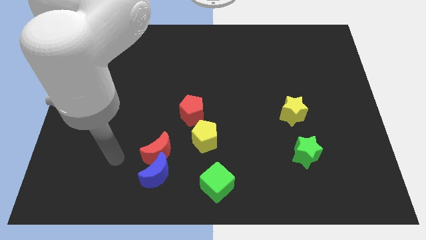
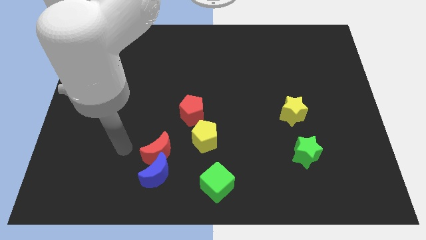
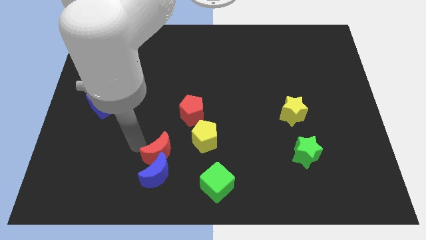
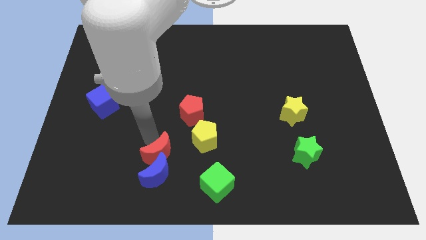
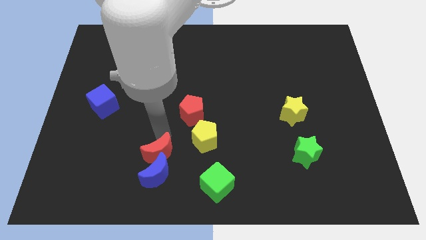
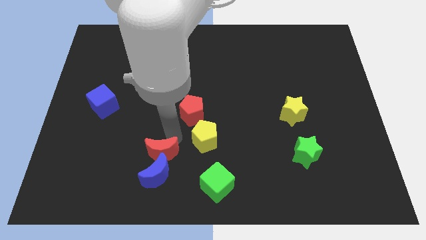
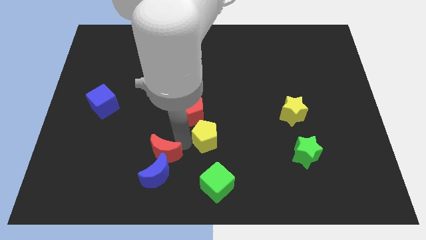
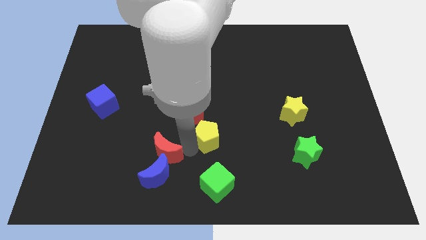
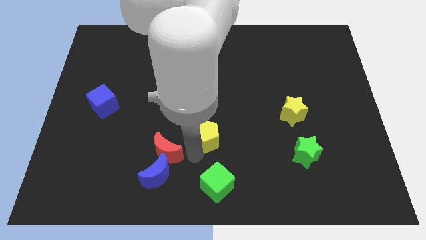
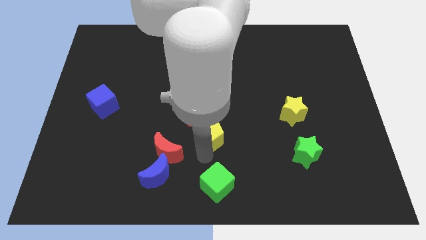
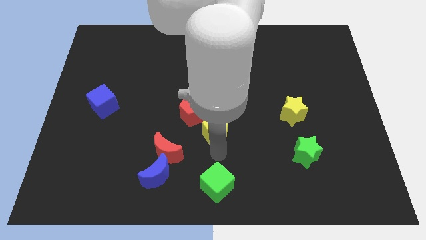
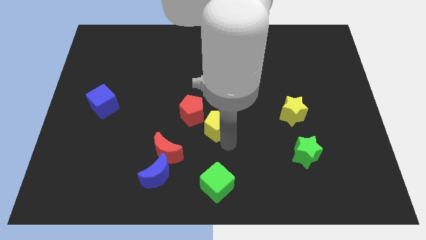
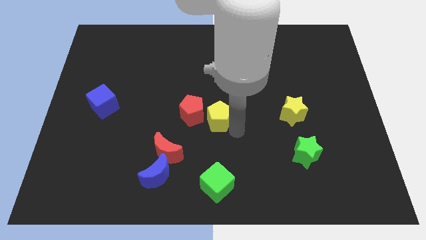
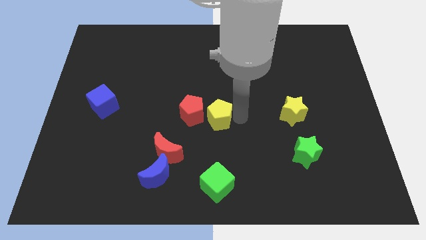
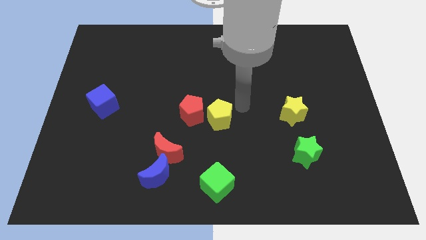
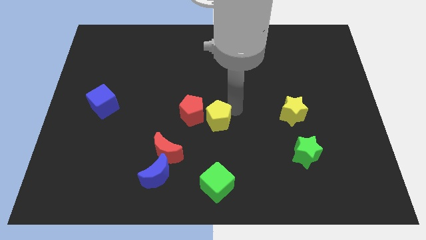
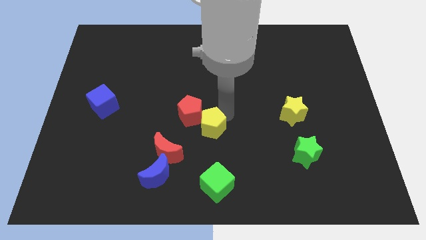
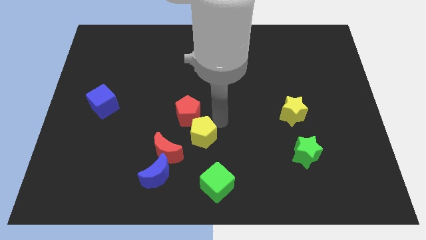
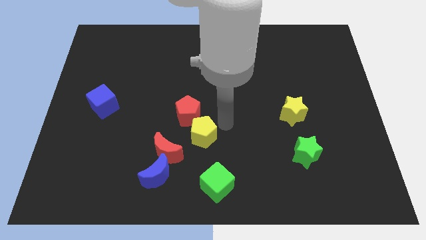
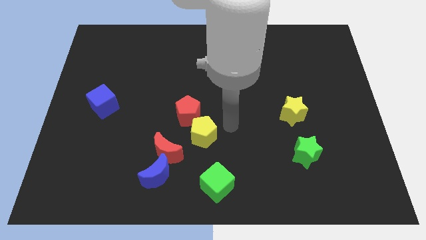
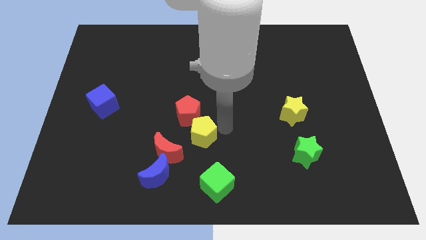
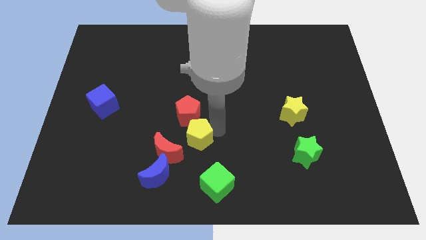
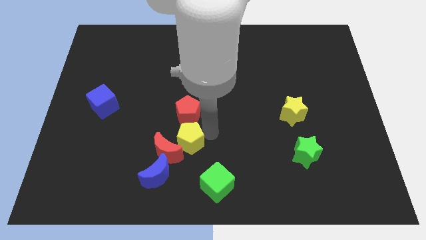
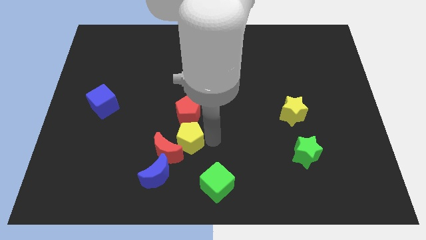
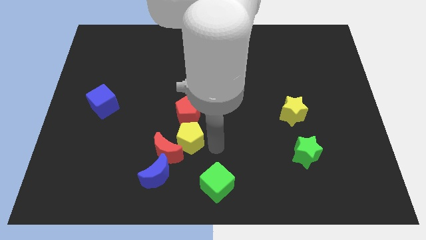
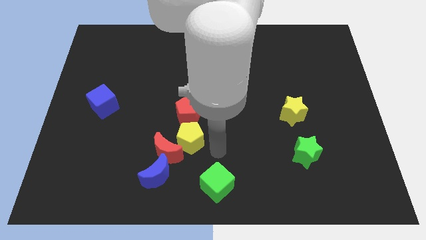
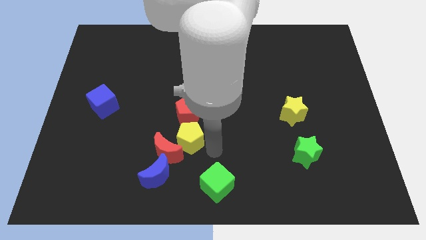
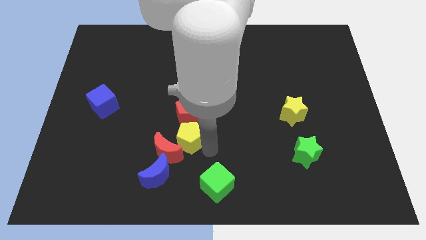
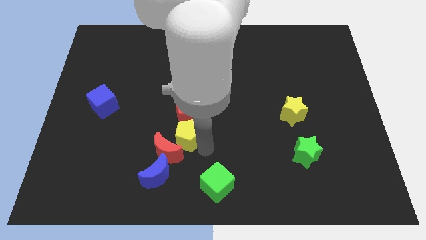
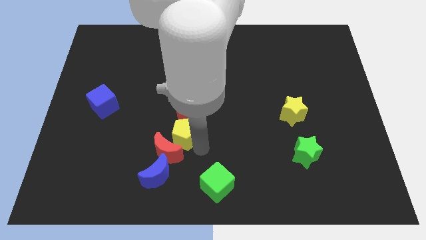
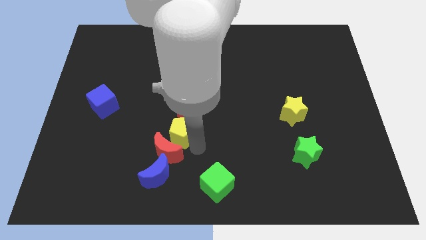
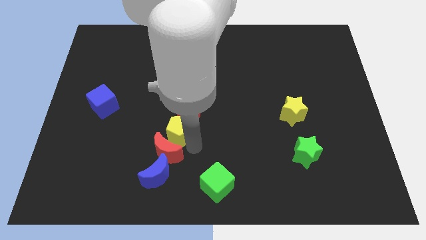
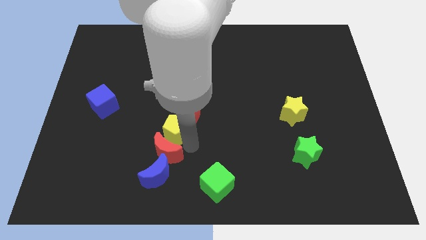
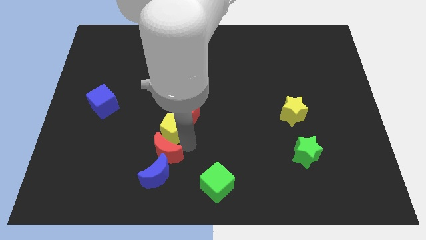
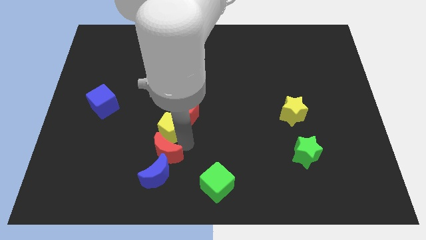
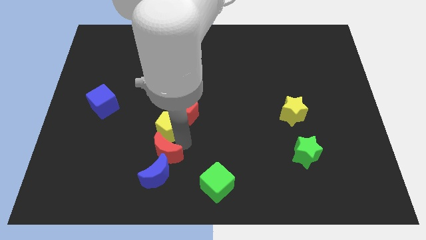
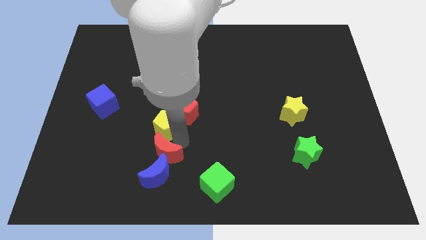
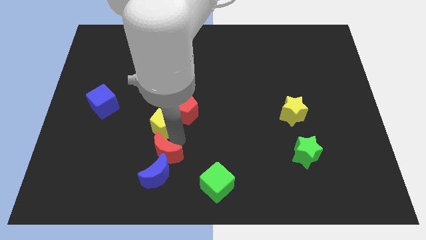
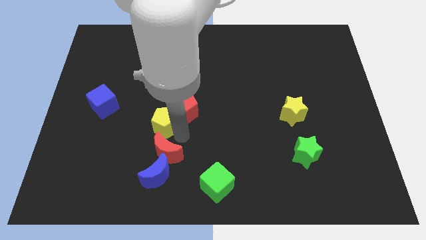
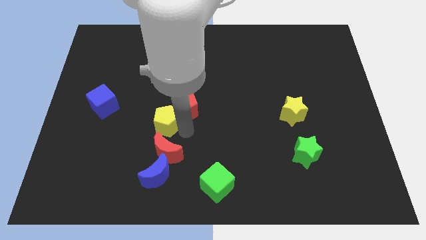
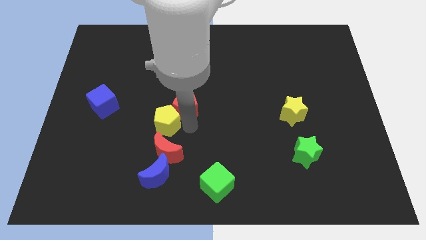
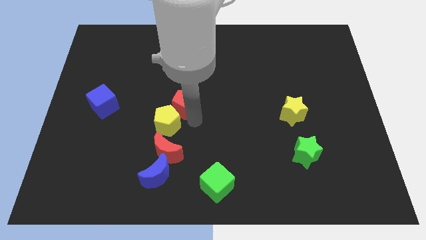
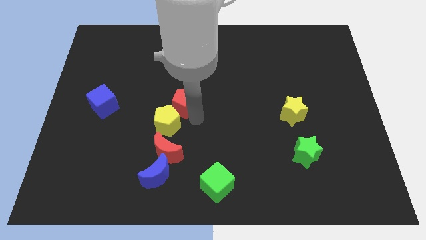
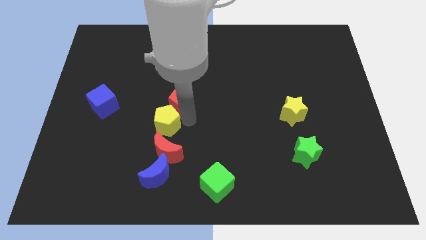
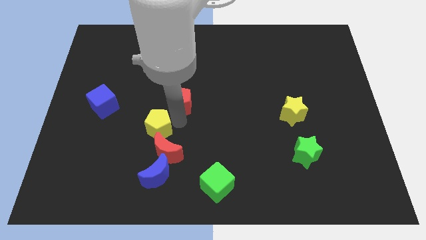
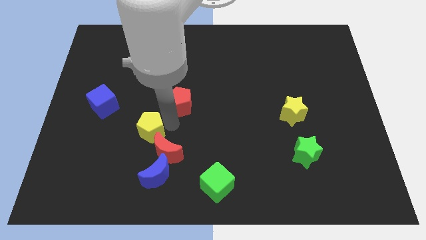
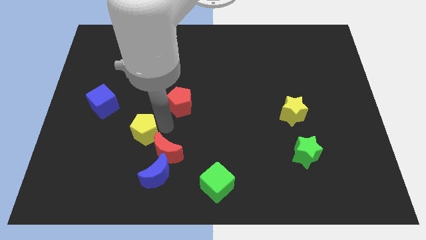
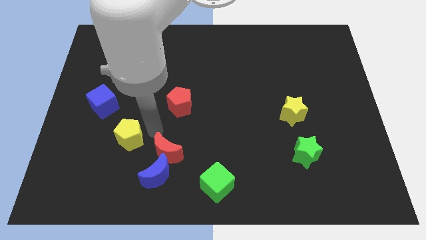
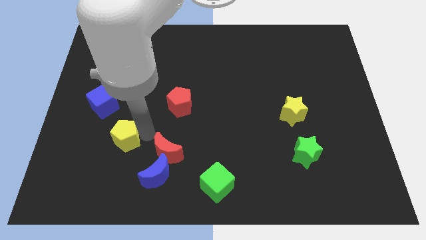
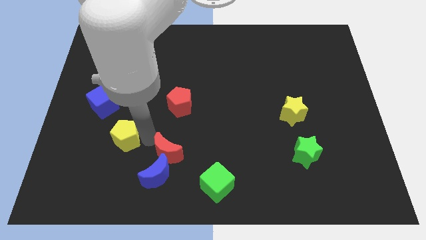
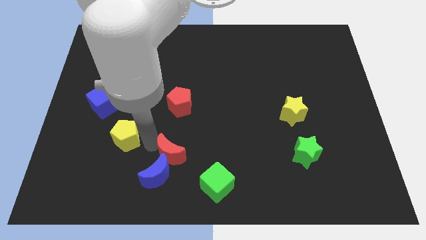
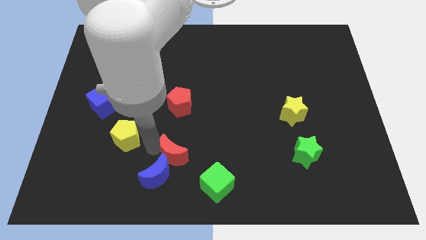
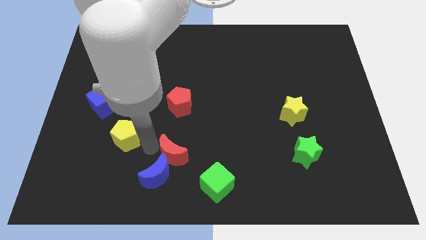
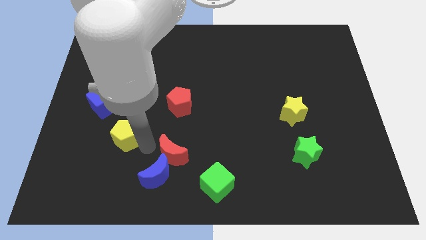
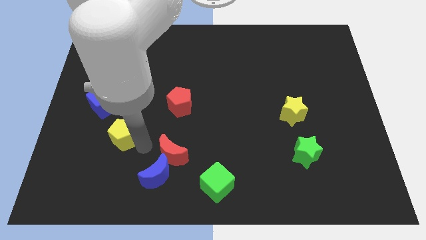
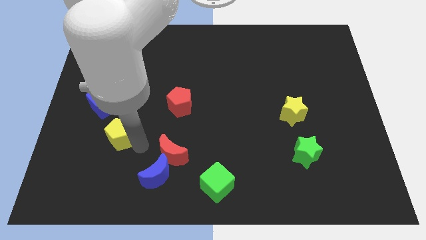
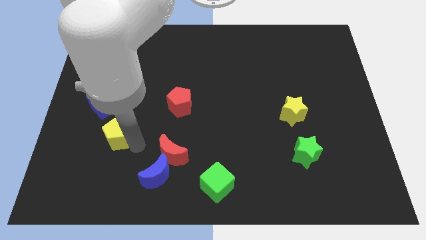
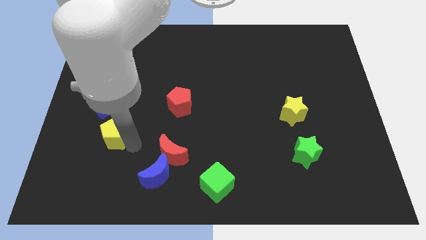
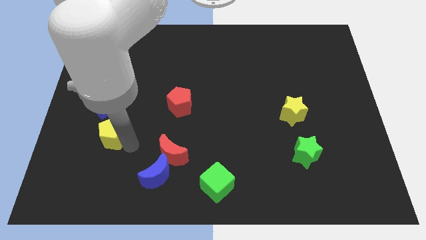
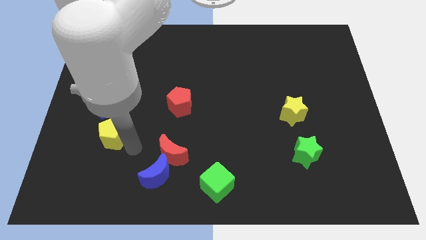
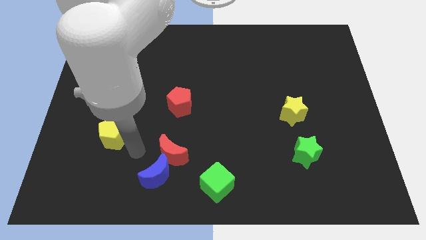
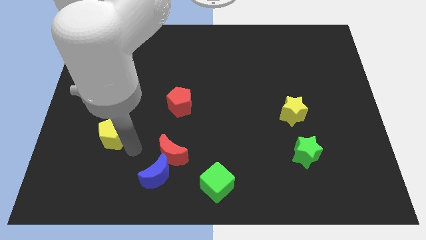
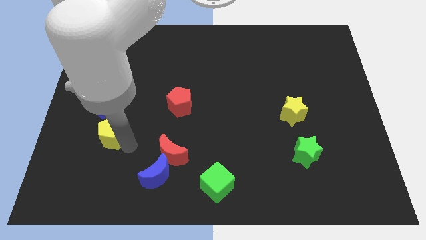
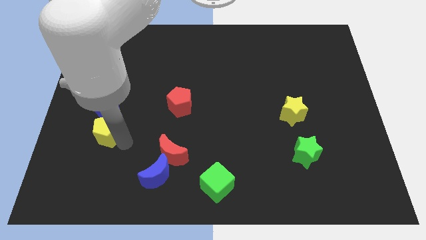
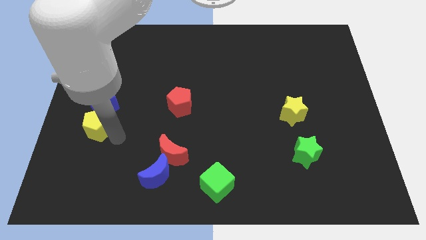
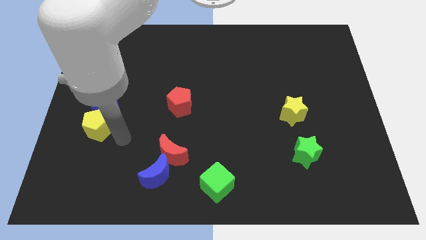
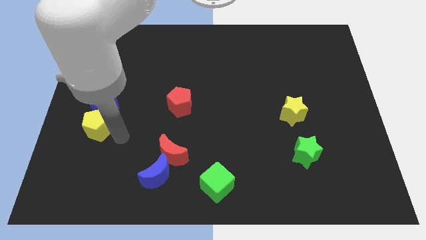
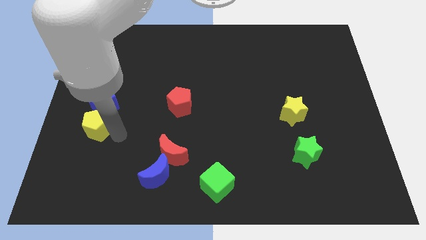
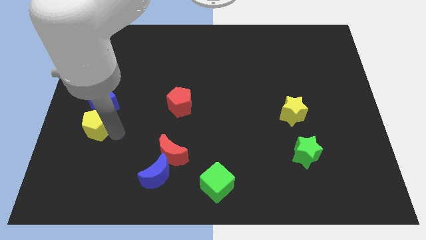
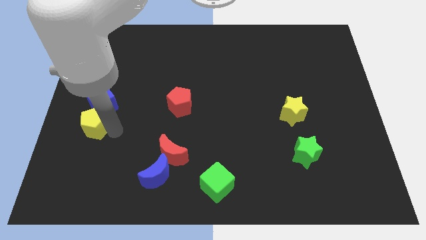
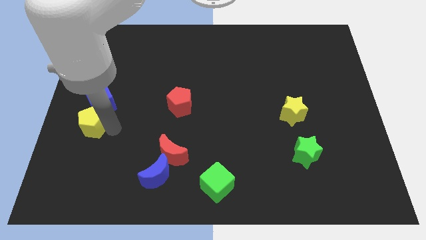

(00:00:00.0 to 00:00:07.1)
push the yellow pentagon to the left side
